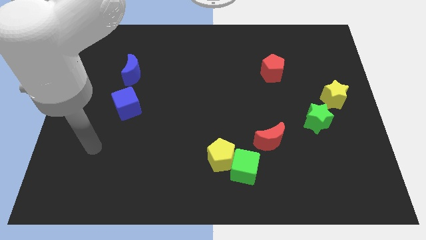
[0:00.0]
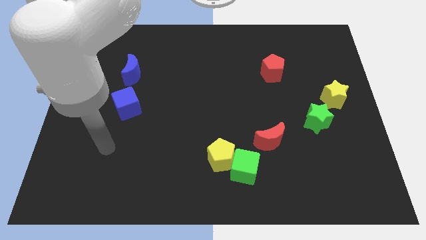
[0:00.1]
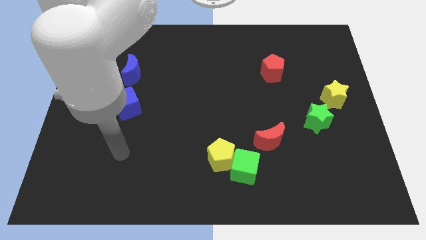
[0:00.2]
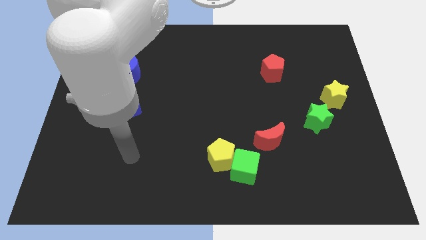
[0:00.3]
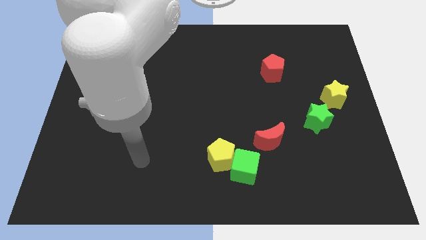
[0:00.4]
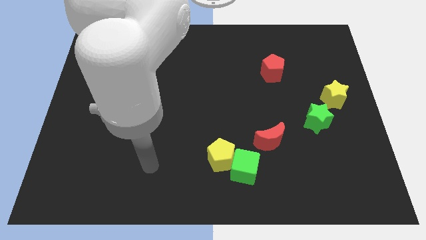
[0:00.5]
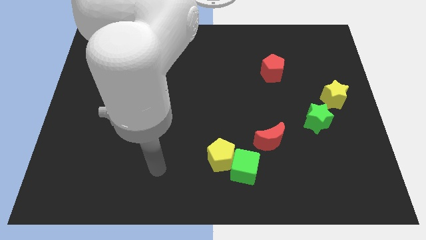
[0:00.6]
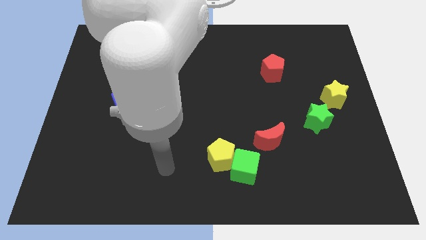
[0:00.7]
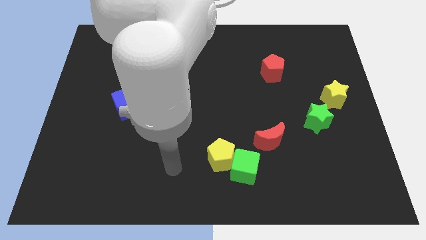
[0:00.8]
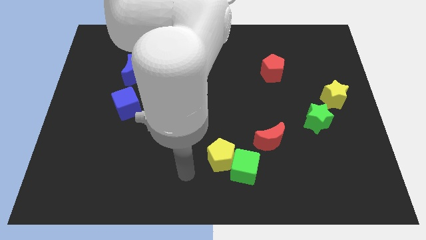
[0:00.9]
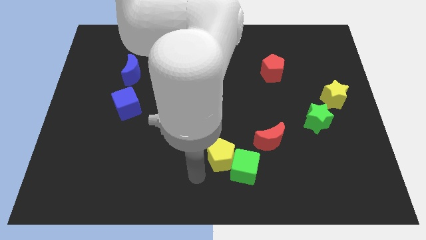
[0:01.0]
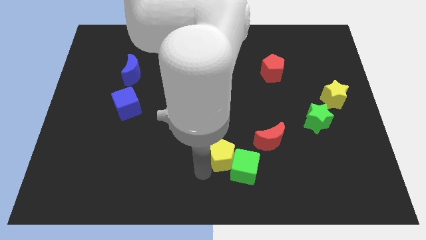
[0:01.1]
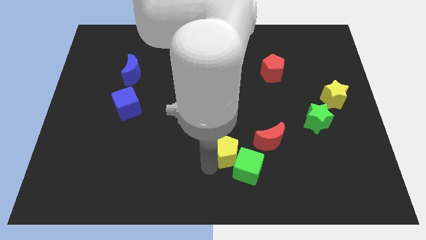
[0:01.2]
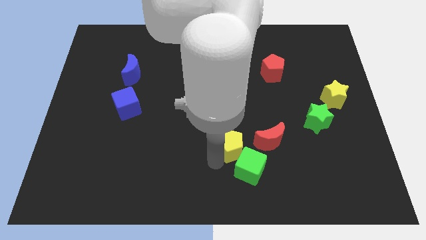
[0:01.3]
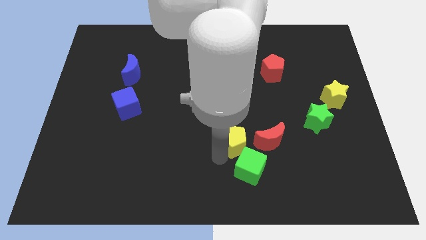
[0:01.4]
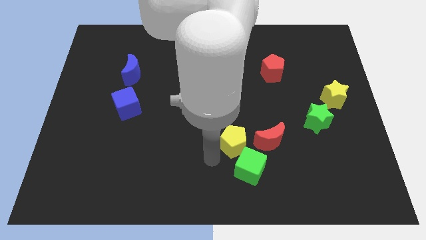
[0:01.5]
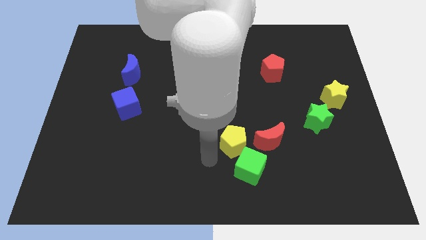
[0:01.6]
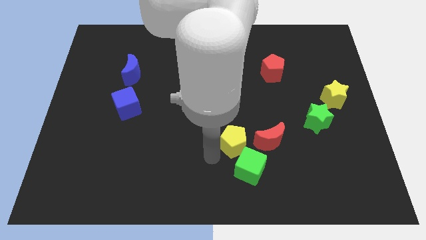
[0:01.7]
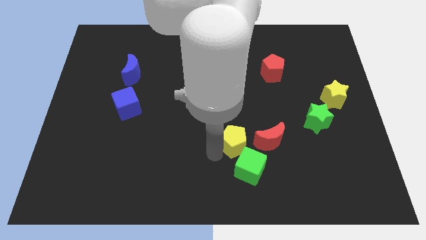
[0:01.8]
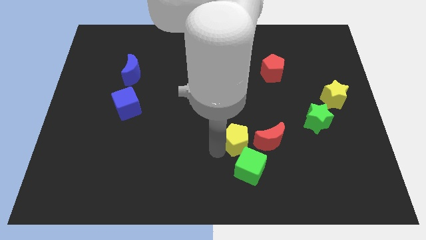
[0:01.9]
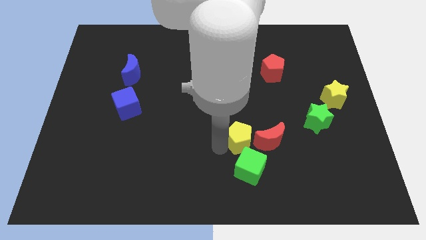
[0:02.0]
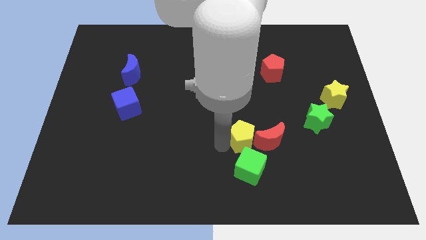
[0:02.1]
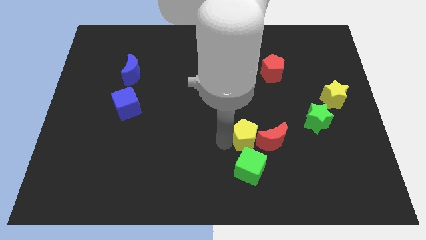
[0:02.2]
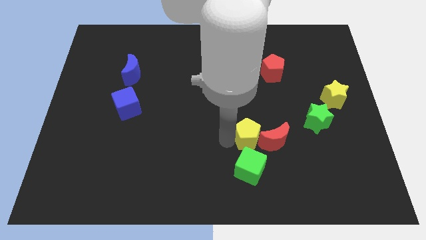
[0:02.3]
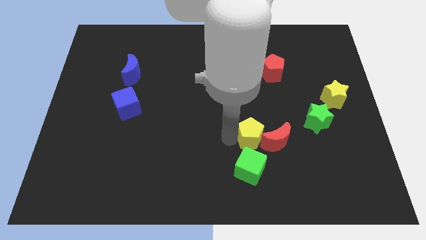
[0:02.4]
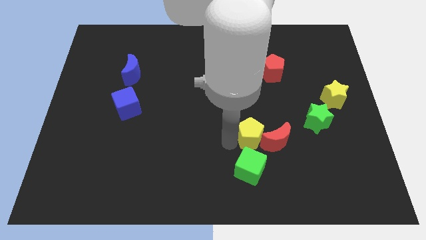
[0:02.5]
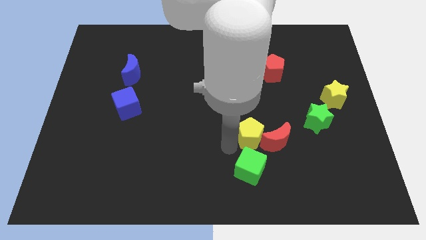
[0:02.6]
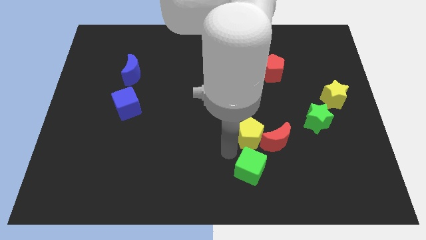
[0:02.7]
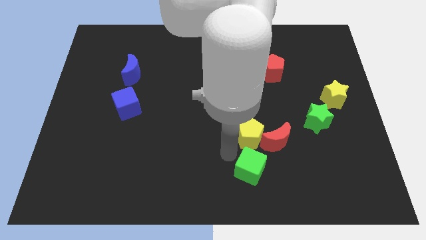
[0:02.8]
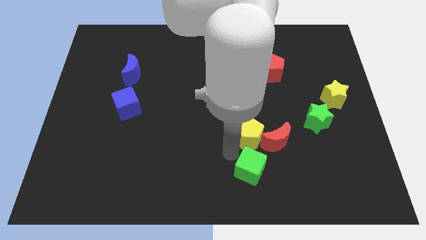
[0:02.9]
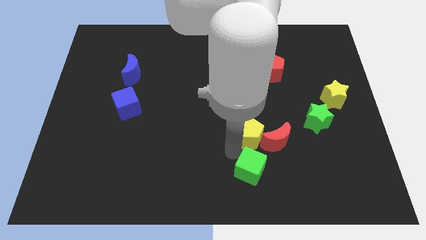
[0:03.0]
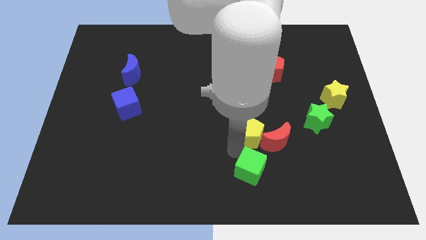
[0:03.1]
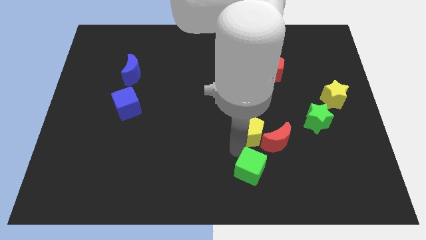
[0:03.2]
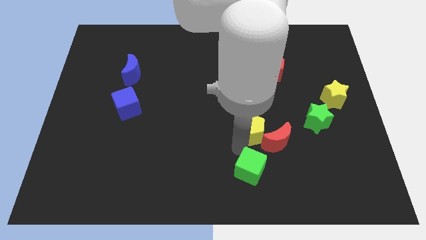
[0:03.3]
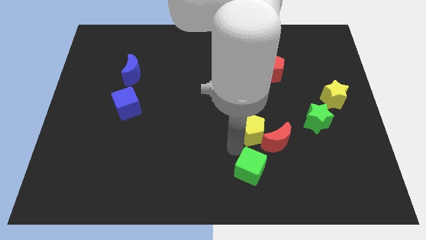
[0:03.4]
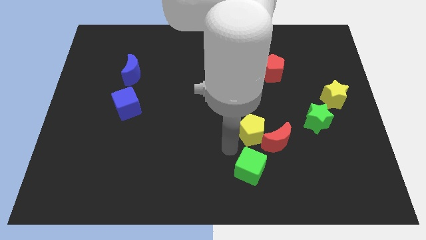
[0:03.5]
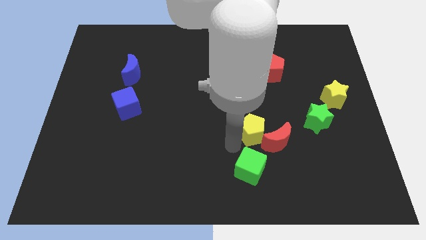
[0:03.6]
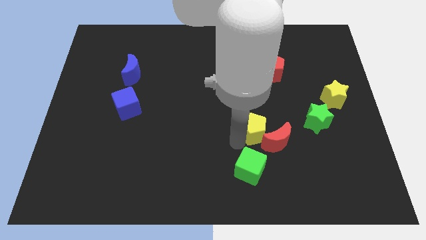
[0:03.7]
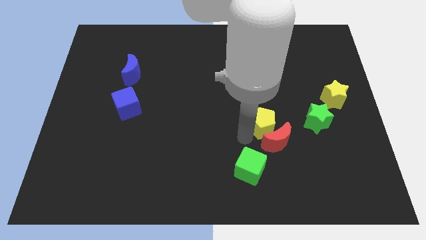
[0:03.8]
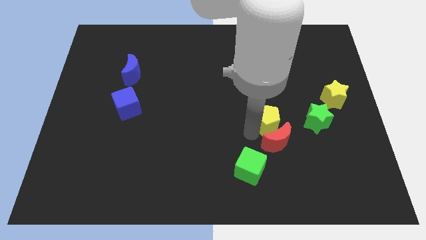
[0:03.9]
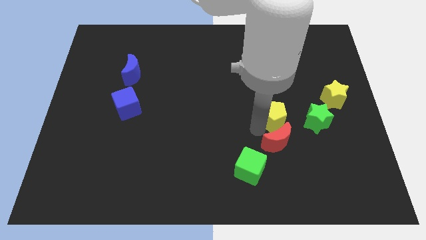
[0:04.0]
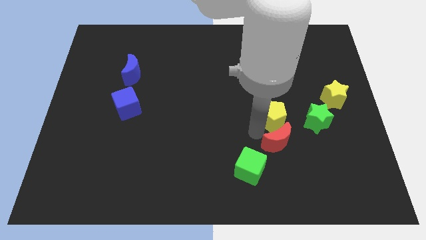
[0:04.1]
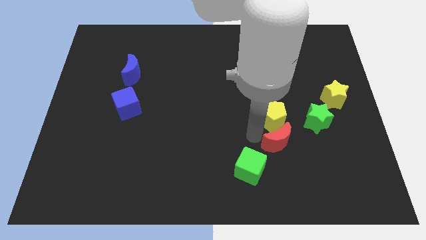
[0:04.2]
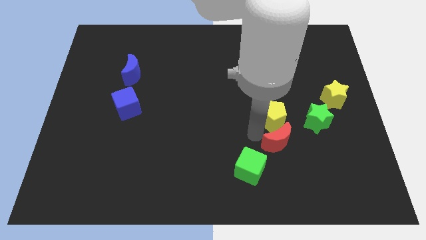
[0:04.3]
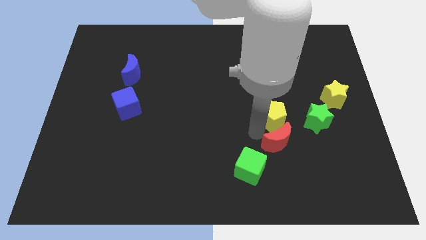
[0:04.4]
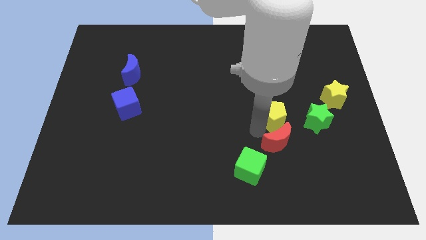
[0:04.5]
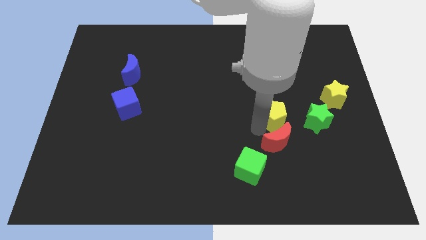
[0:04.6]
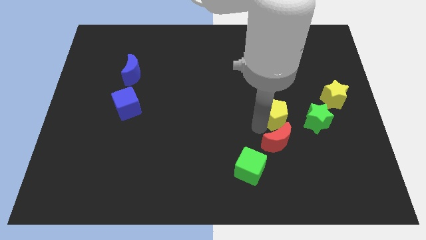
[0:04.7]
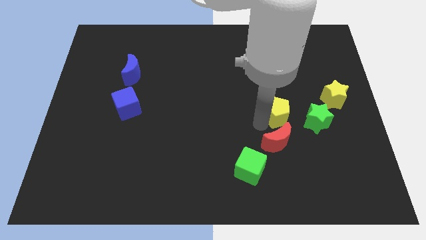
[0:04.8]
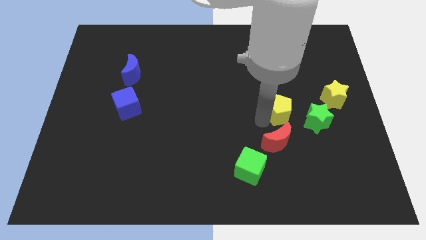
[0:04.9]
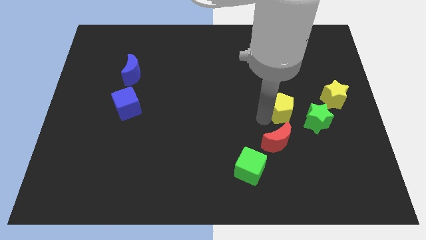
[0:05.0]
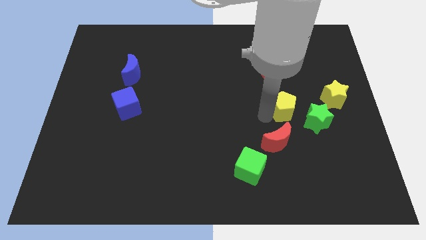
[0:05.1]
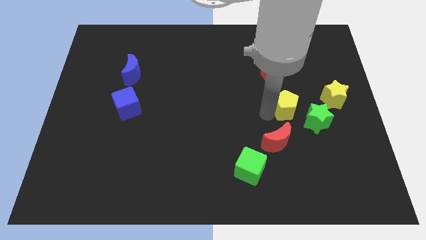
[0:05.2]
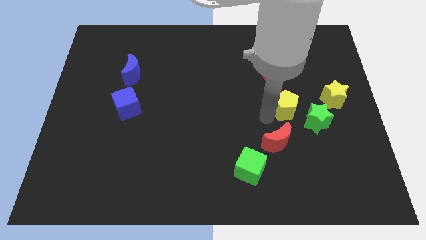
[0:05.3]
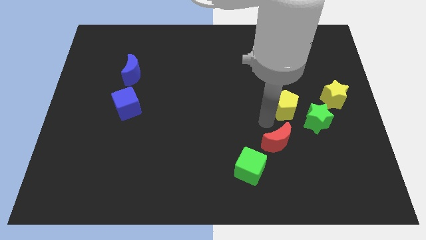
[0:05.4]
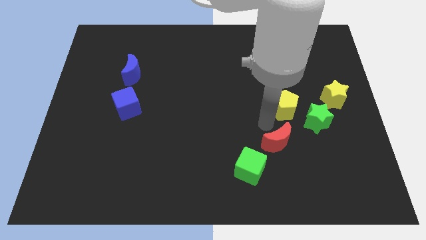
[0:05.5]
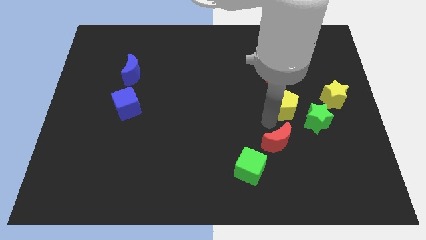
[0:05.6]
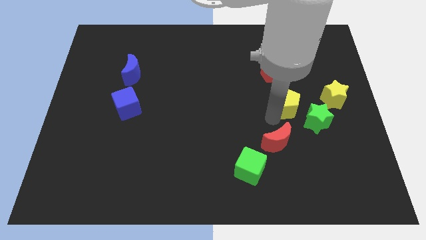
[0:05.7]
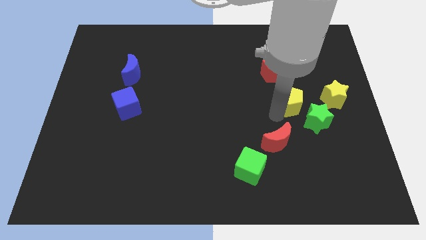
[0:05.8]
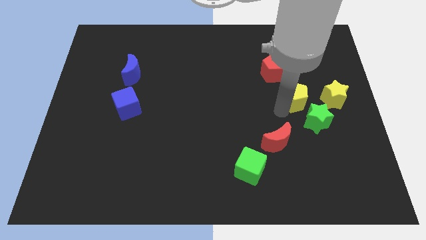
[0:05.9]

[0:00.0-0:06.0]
push the yellow pentagon to the top of the green star

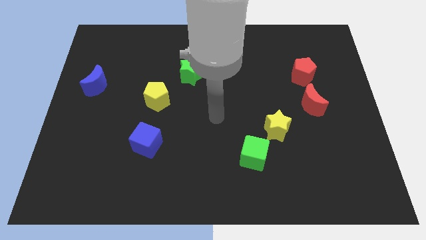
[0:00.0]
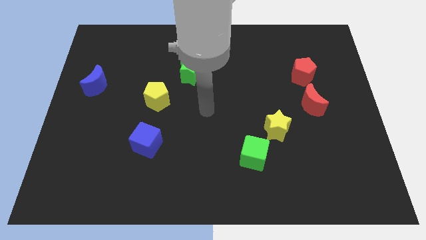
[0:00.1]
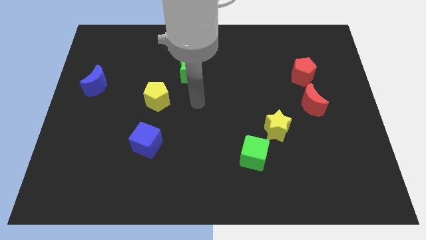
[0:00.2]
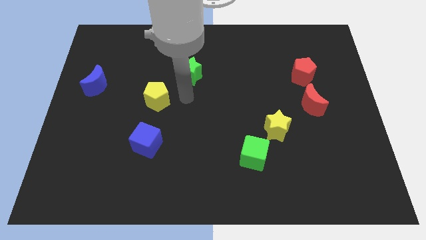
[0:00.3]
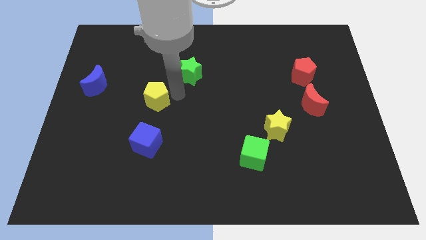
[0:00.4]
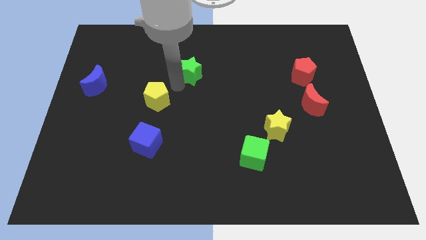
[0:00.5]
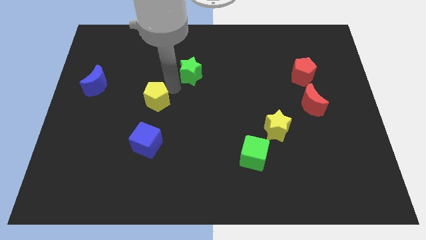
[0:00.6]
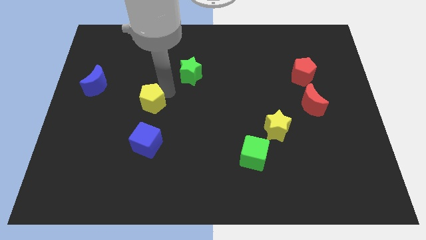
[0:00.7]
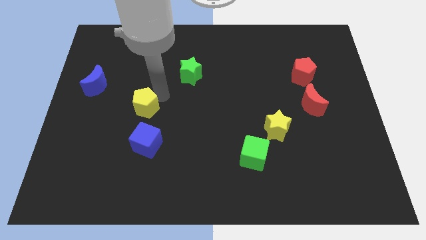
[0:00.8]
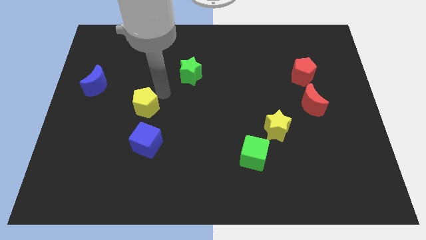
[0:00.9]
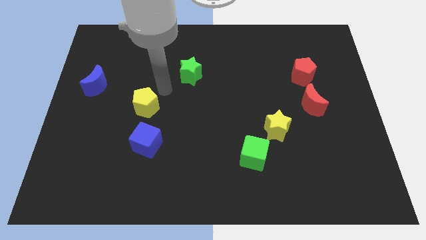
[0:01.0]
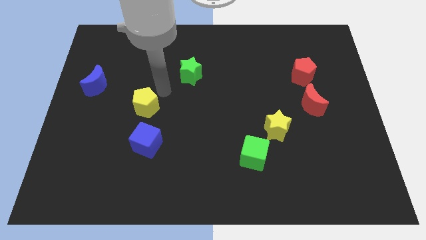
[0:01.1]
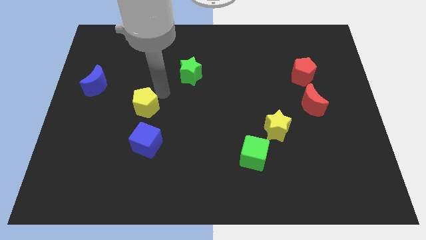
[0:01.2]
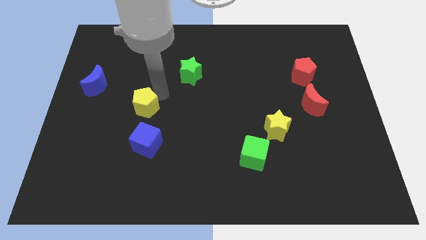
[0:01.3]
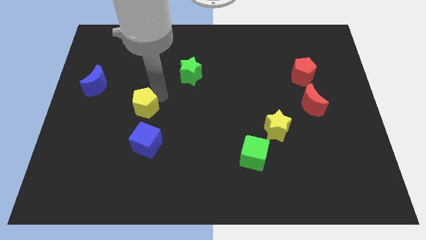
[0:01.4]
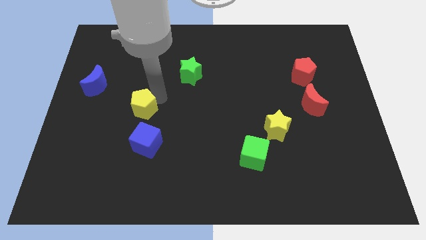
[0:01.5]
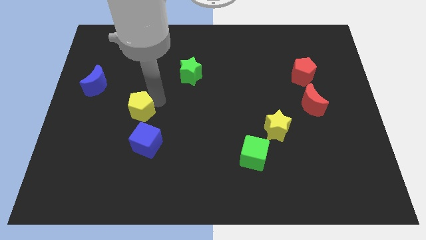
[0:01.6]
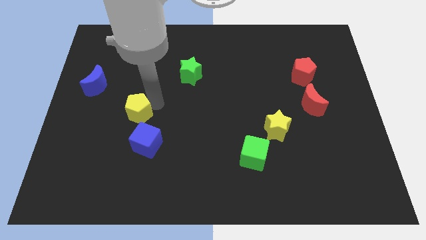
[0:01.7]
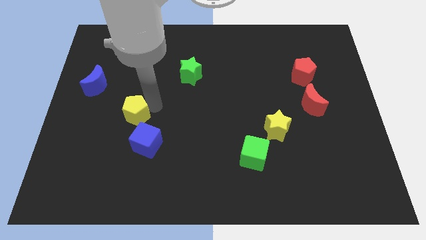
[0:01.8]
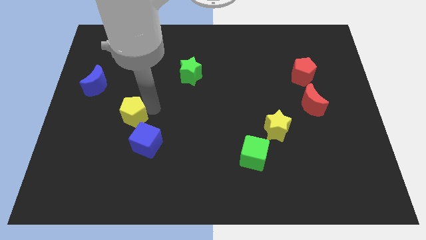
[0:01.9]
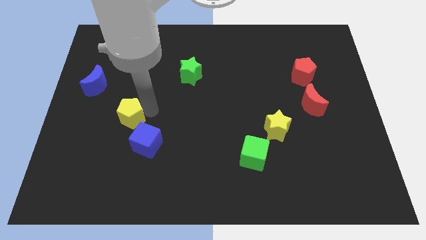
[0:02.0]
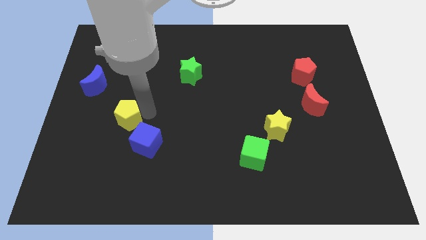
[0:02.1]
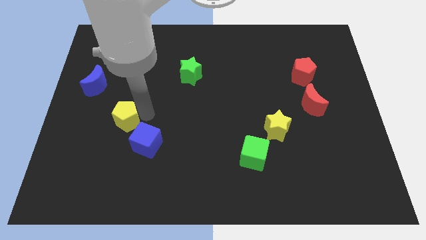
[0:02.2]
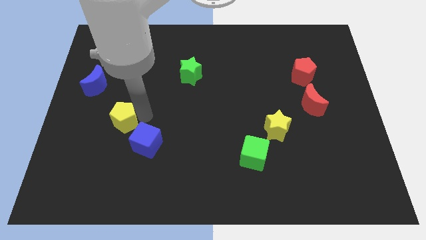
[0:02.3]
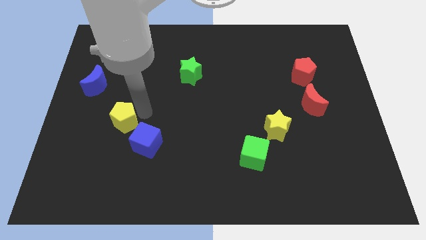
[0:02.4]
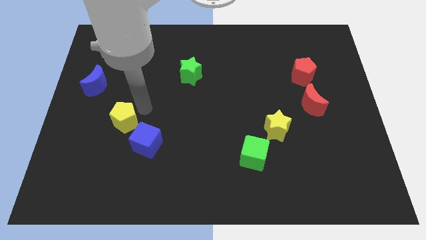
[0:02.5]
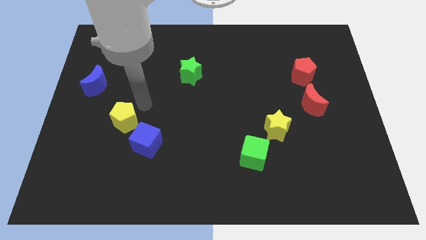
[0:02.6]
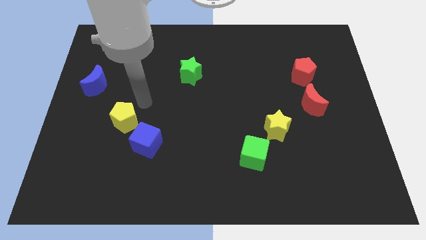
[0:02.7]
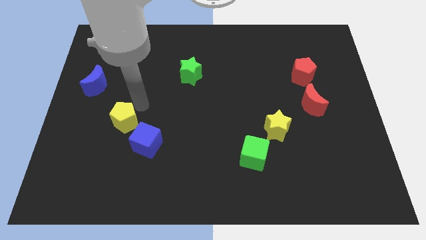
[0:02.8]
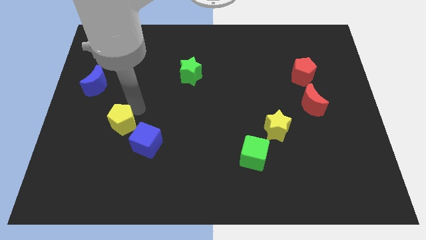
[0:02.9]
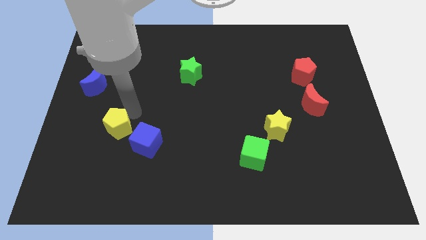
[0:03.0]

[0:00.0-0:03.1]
move the yellow pentagon to the left of the blue cube
